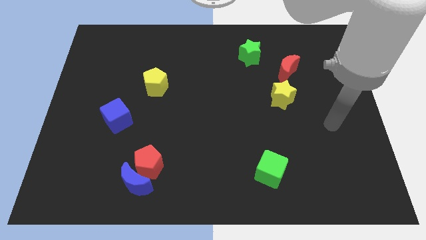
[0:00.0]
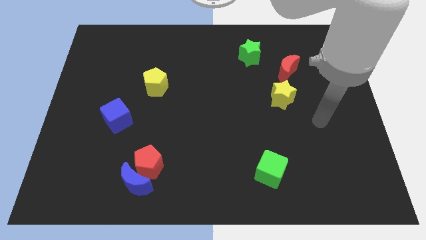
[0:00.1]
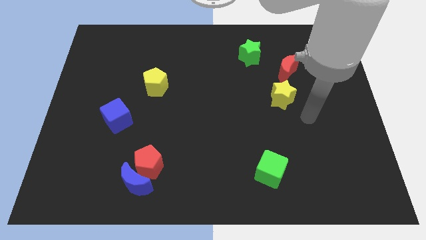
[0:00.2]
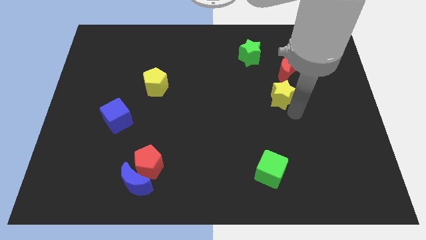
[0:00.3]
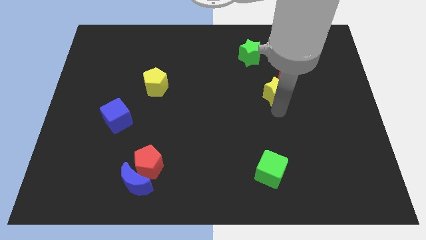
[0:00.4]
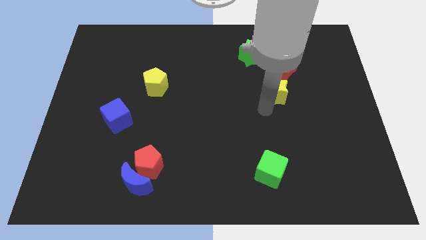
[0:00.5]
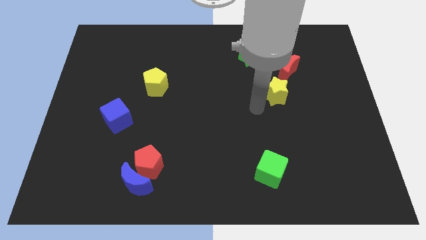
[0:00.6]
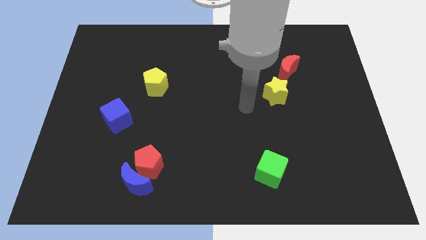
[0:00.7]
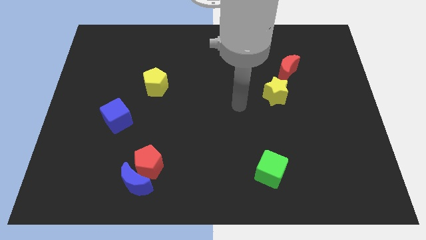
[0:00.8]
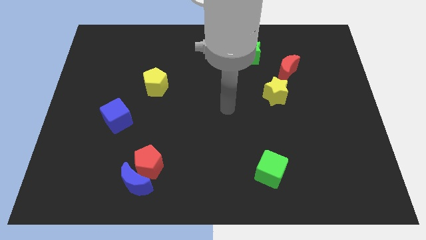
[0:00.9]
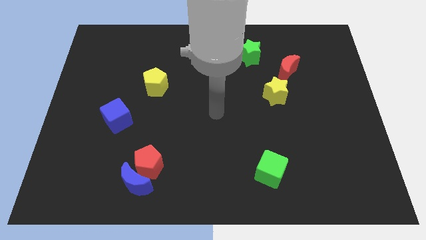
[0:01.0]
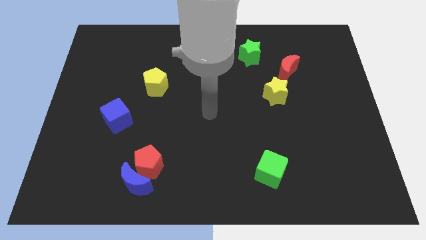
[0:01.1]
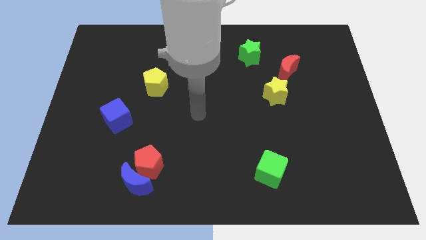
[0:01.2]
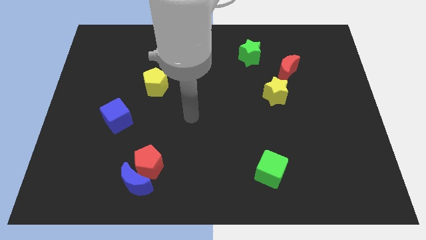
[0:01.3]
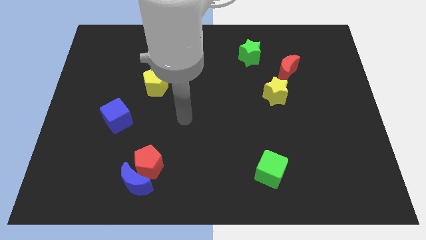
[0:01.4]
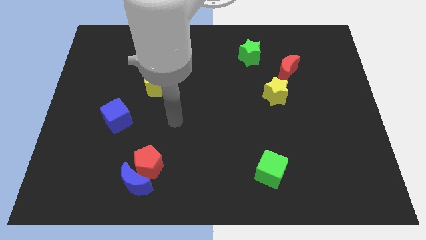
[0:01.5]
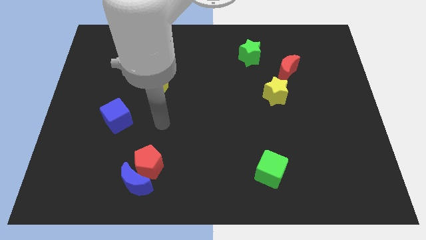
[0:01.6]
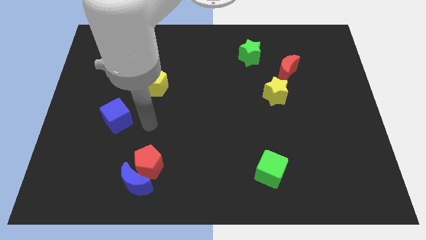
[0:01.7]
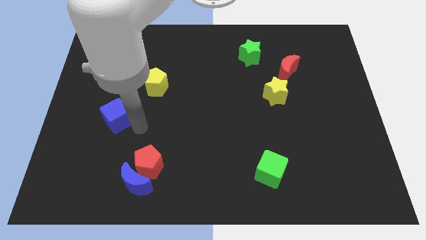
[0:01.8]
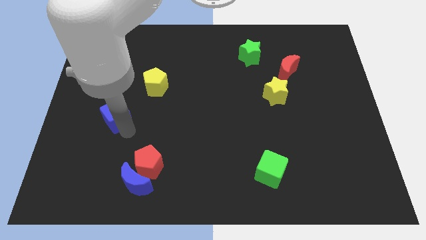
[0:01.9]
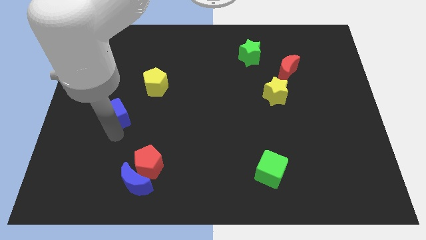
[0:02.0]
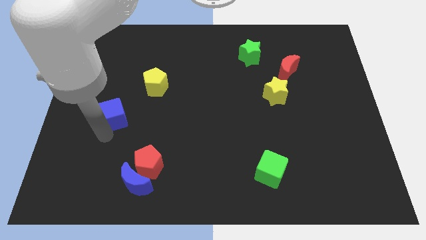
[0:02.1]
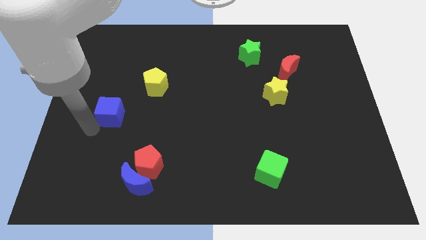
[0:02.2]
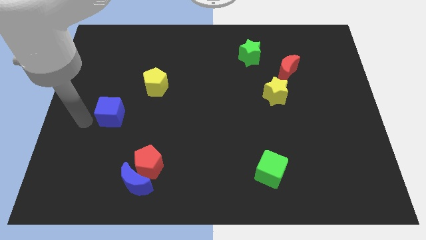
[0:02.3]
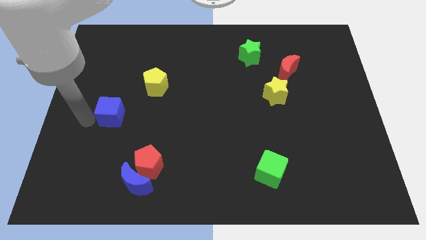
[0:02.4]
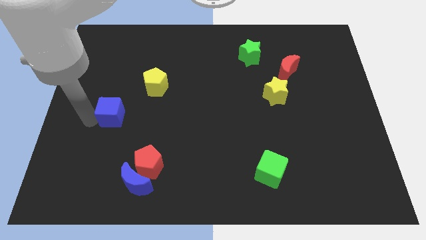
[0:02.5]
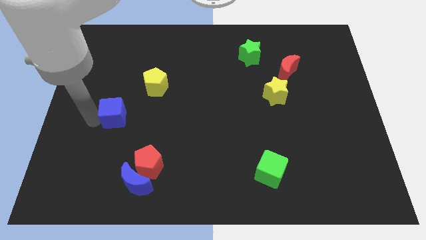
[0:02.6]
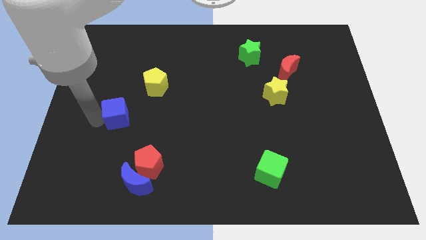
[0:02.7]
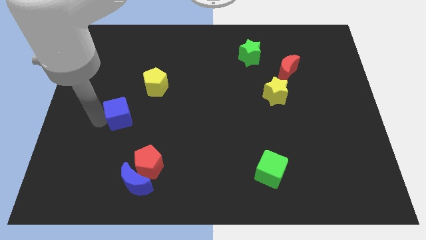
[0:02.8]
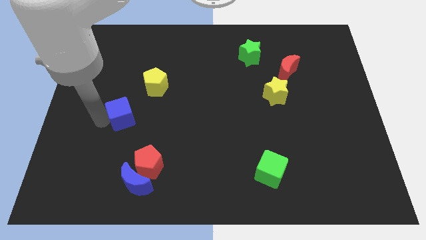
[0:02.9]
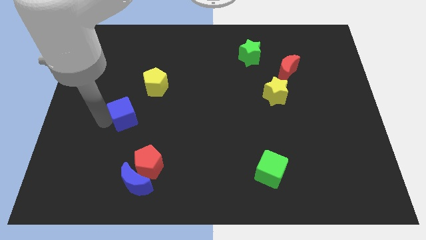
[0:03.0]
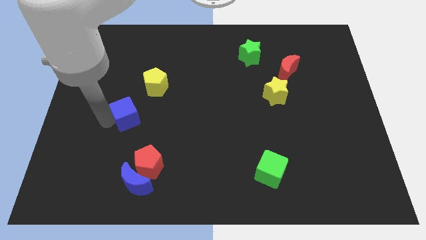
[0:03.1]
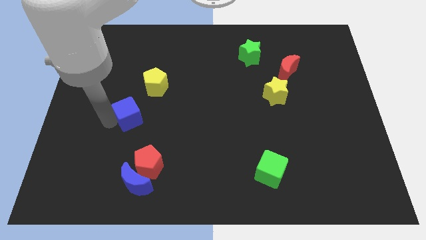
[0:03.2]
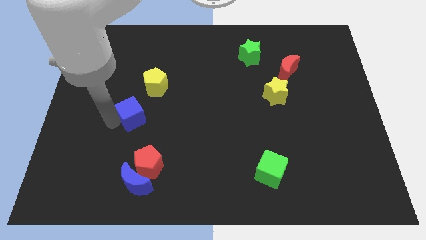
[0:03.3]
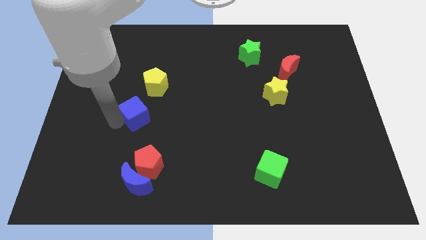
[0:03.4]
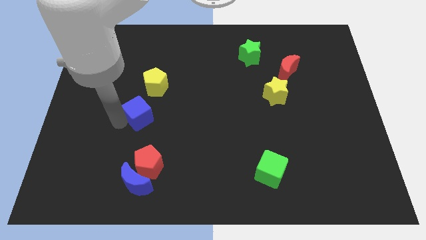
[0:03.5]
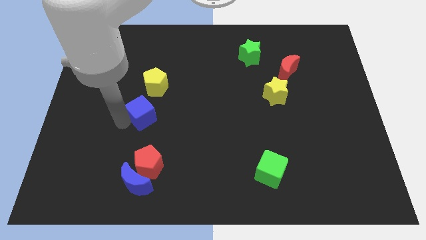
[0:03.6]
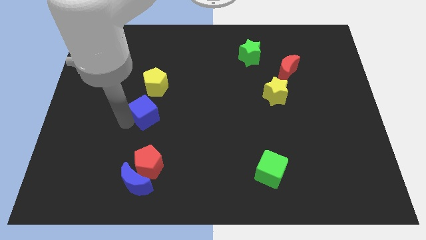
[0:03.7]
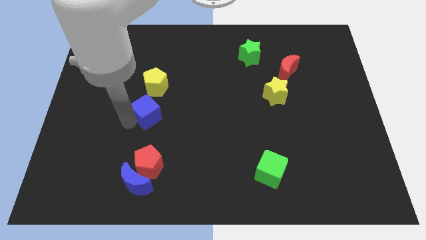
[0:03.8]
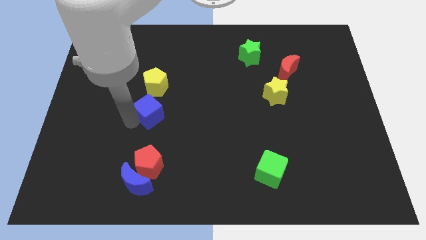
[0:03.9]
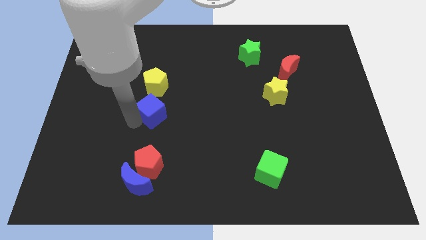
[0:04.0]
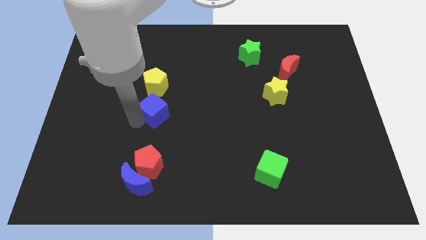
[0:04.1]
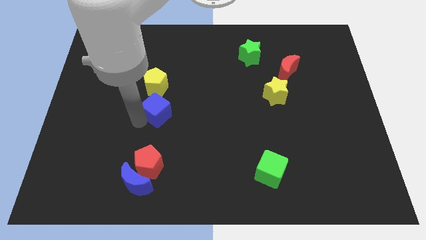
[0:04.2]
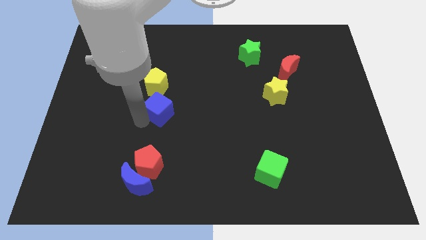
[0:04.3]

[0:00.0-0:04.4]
slightly slide the blue cube diagonally up and right

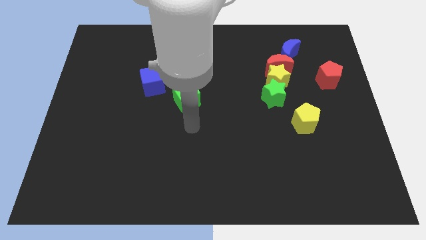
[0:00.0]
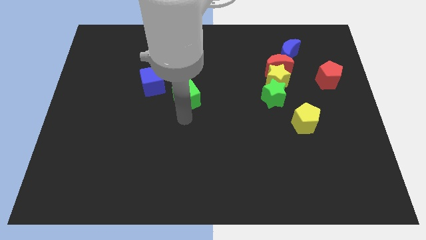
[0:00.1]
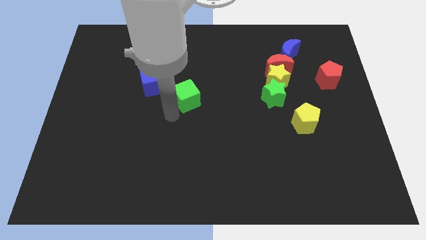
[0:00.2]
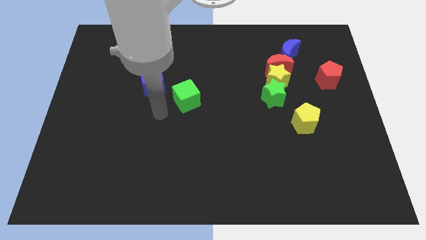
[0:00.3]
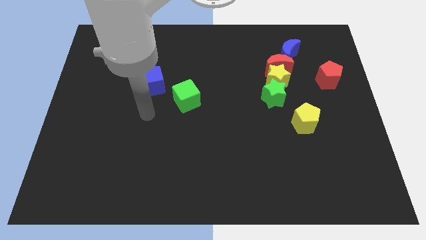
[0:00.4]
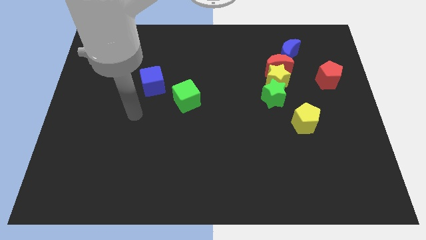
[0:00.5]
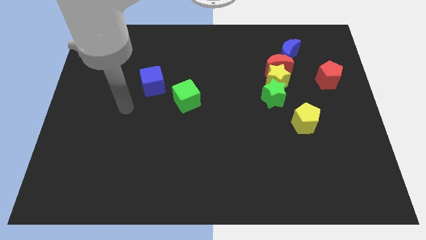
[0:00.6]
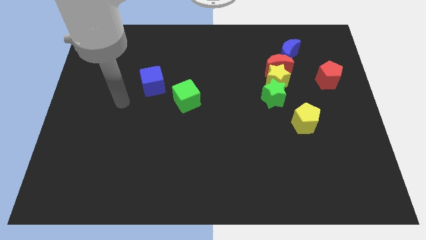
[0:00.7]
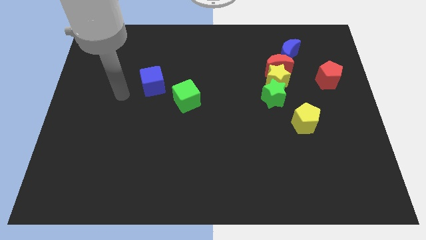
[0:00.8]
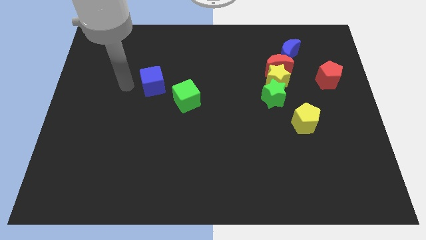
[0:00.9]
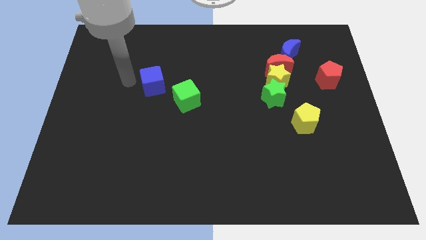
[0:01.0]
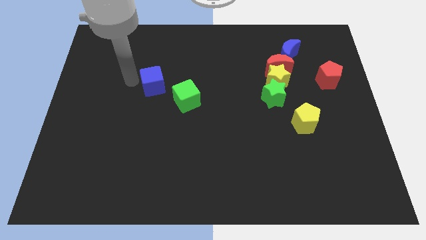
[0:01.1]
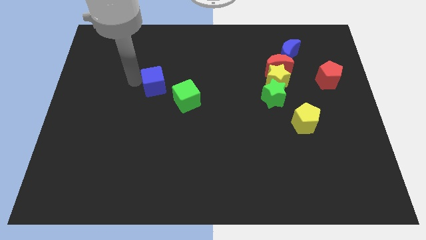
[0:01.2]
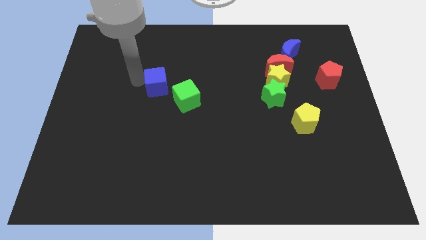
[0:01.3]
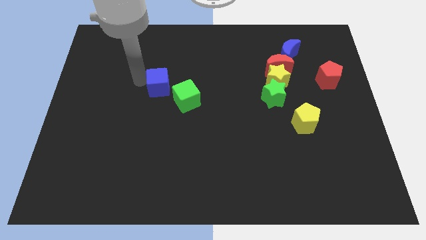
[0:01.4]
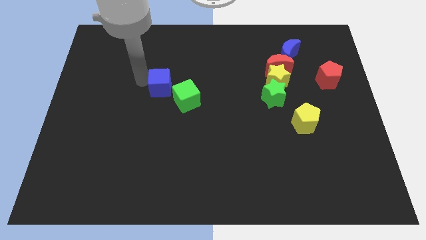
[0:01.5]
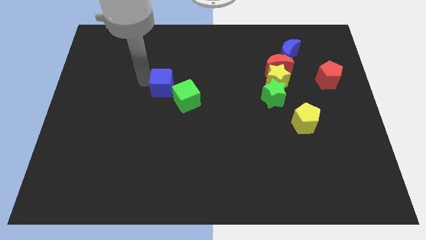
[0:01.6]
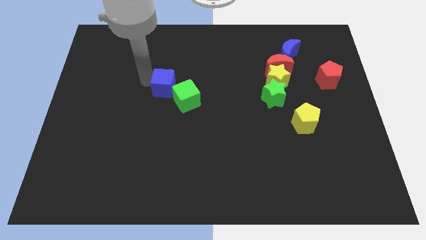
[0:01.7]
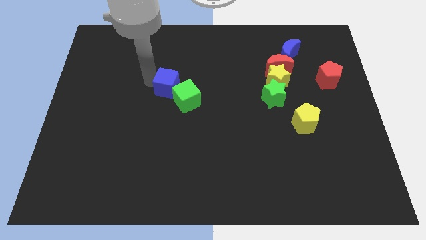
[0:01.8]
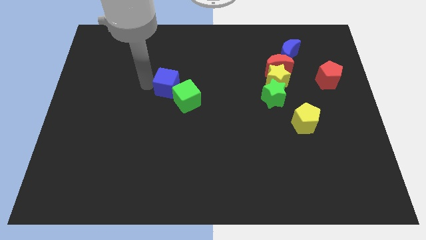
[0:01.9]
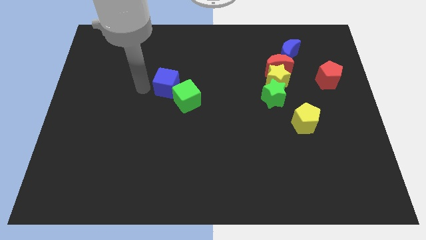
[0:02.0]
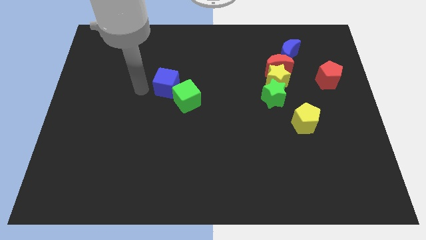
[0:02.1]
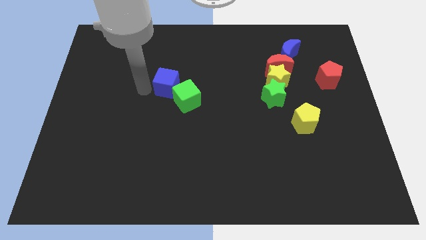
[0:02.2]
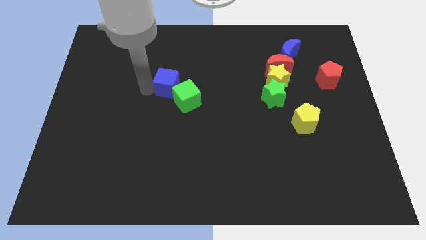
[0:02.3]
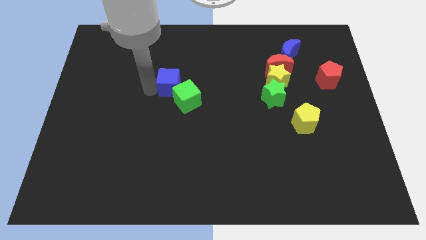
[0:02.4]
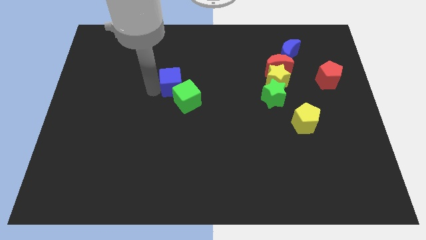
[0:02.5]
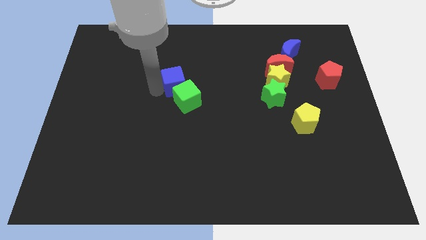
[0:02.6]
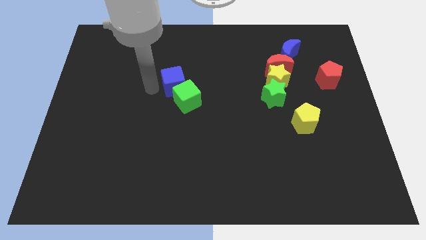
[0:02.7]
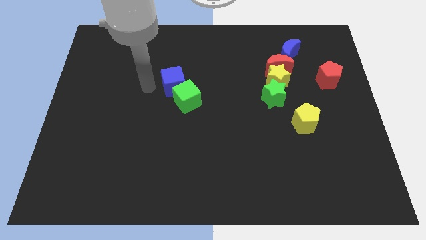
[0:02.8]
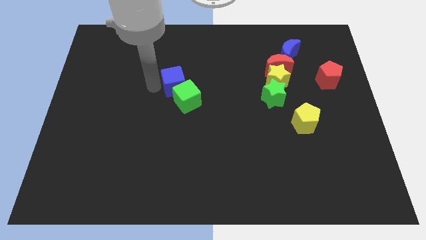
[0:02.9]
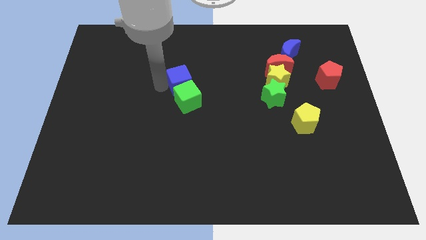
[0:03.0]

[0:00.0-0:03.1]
slightly push the blue cube right

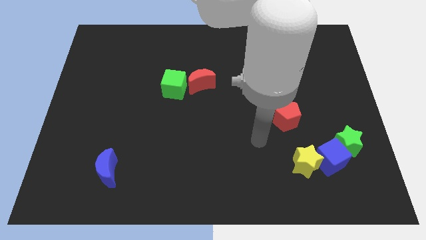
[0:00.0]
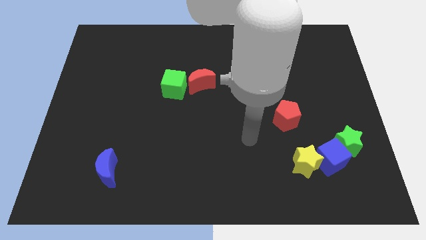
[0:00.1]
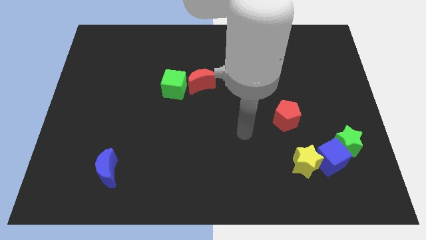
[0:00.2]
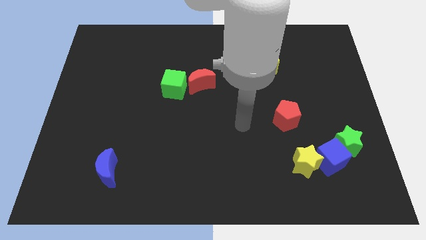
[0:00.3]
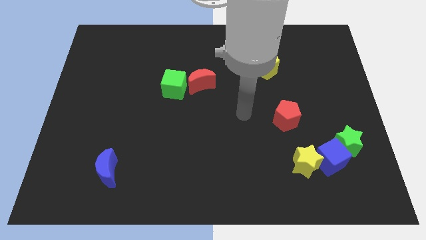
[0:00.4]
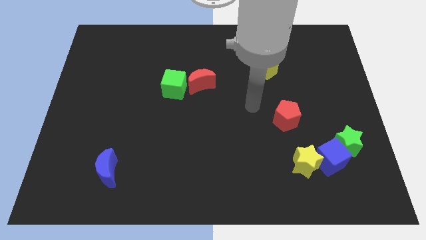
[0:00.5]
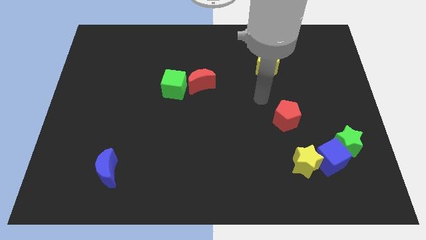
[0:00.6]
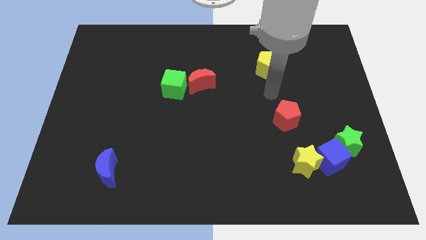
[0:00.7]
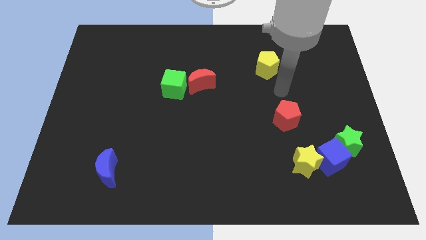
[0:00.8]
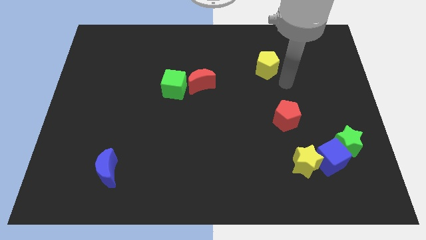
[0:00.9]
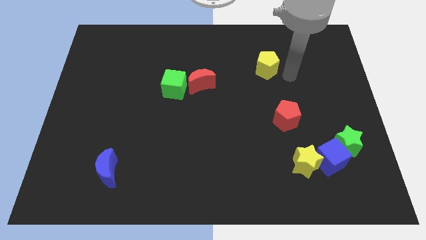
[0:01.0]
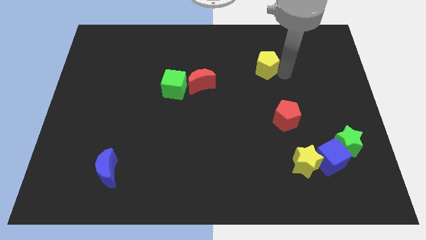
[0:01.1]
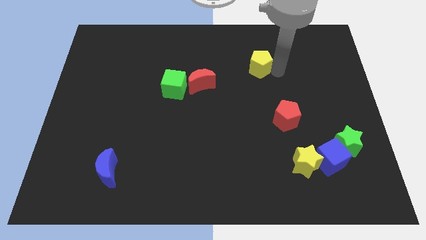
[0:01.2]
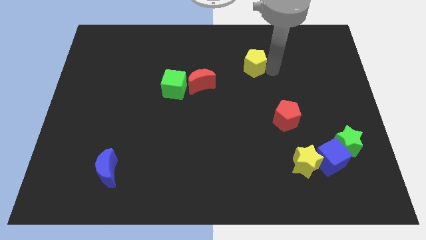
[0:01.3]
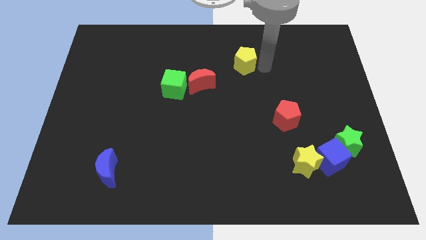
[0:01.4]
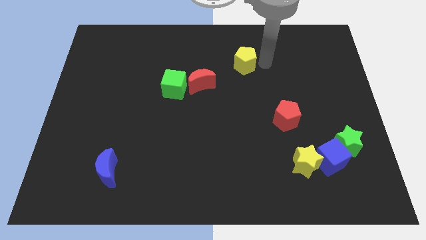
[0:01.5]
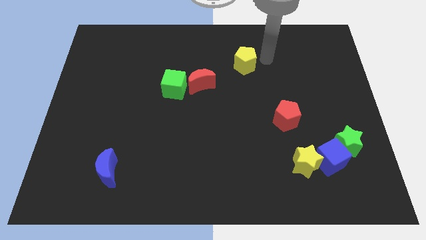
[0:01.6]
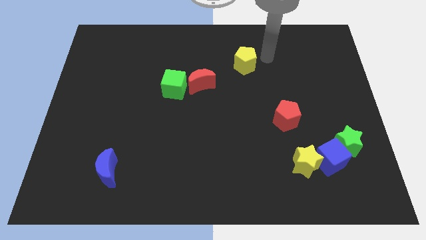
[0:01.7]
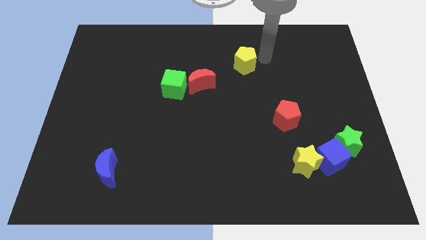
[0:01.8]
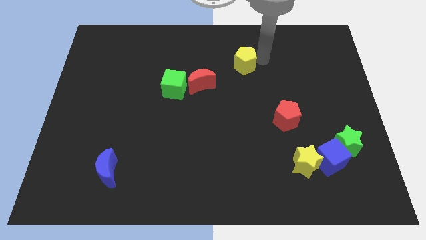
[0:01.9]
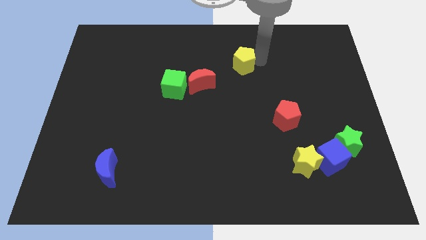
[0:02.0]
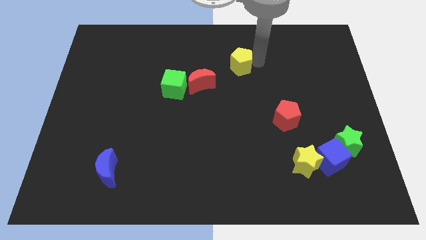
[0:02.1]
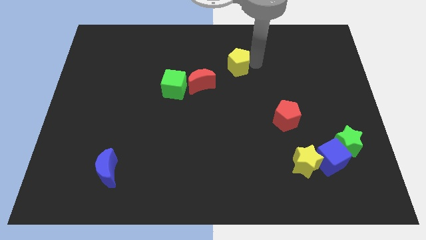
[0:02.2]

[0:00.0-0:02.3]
slightly move the yellow pentagon to the left
